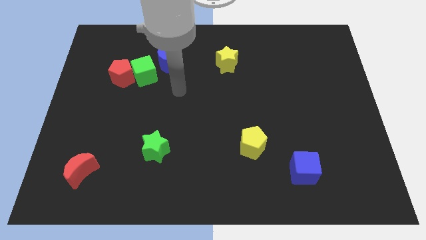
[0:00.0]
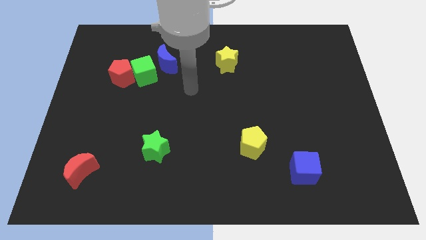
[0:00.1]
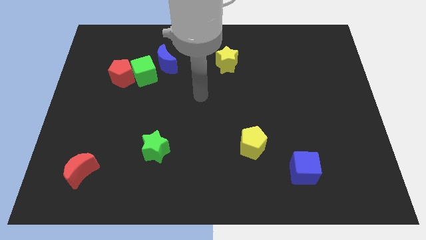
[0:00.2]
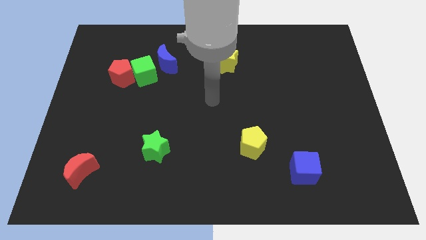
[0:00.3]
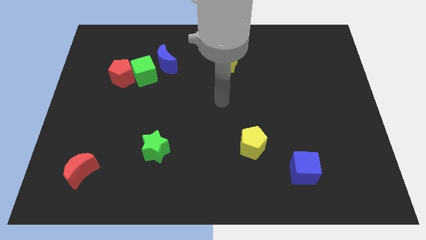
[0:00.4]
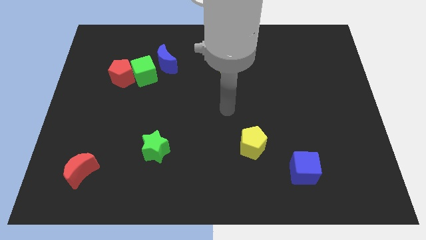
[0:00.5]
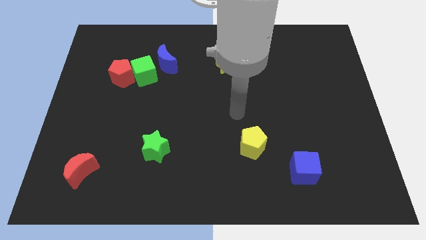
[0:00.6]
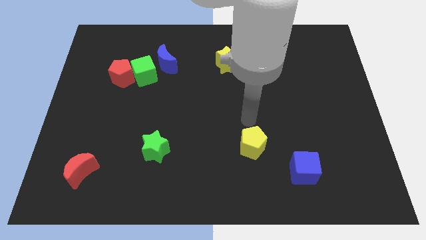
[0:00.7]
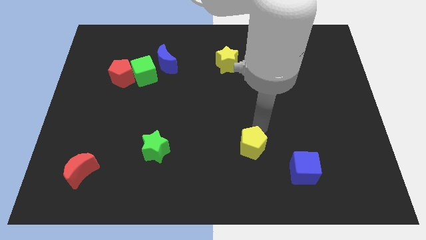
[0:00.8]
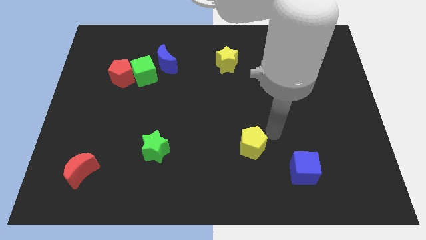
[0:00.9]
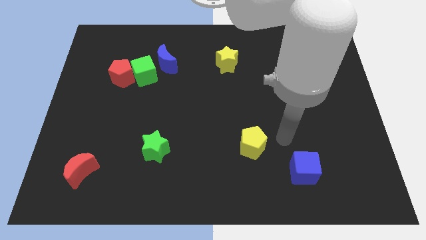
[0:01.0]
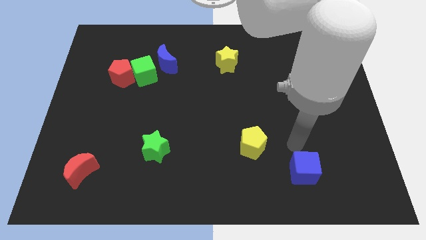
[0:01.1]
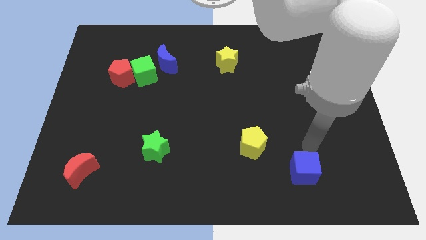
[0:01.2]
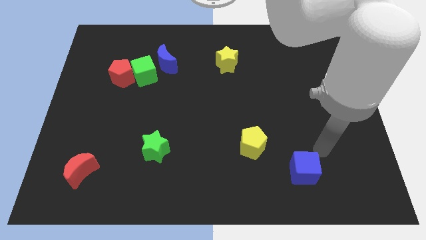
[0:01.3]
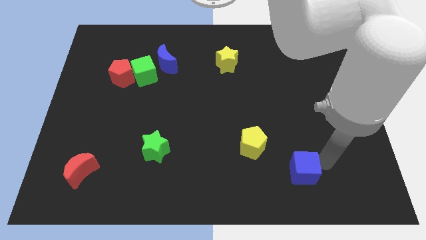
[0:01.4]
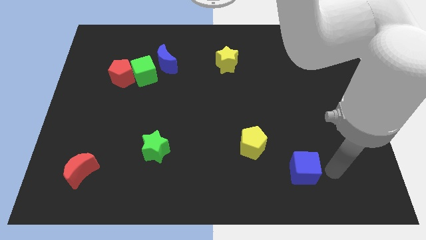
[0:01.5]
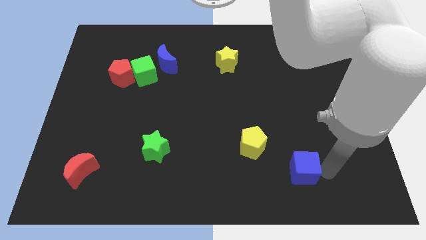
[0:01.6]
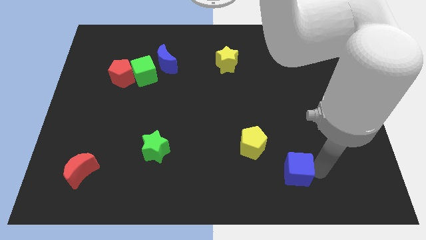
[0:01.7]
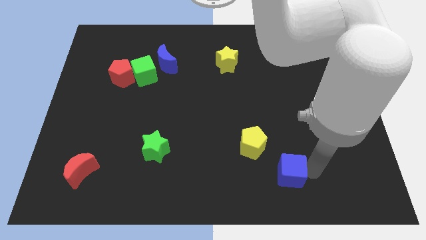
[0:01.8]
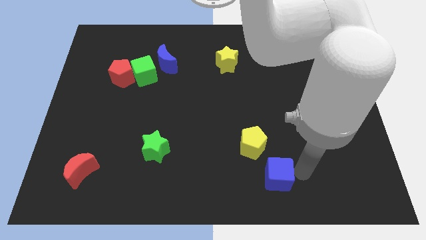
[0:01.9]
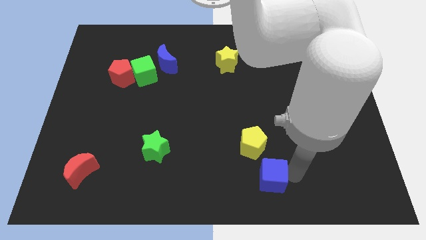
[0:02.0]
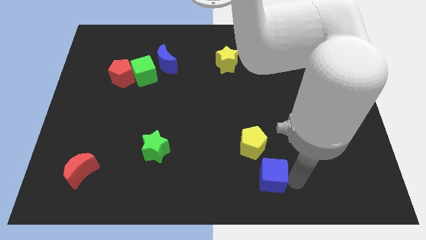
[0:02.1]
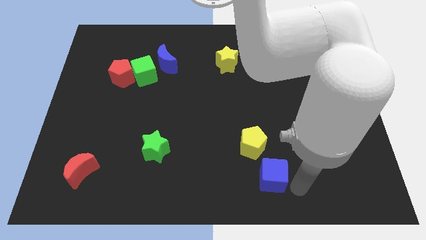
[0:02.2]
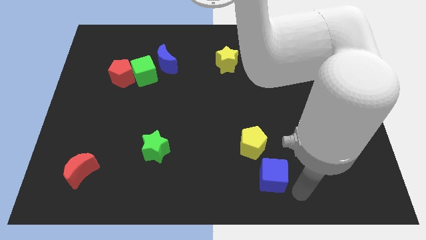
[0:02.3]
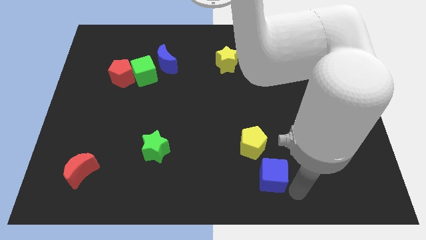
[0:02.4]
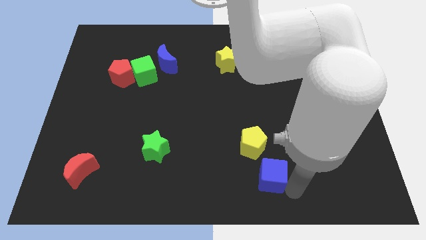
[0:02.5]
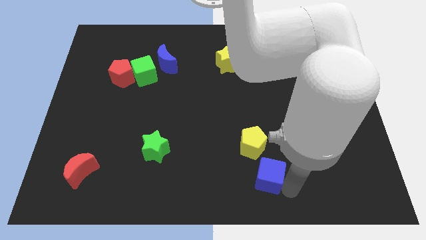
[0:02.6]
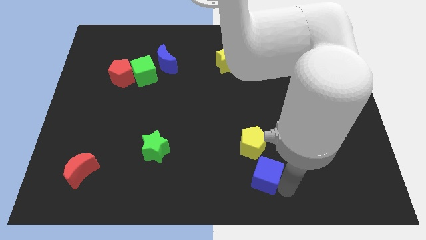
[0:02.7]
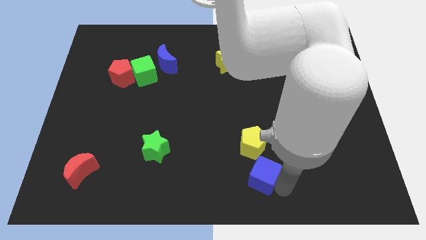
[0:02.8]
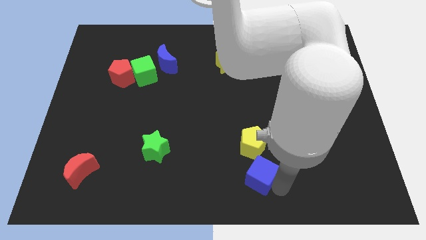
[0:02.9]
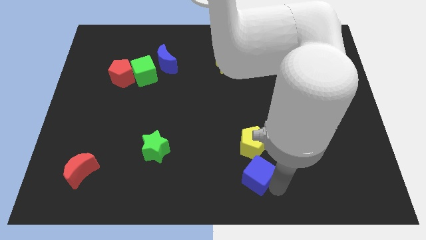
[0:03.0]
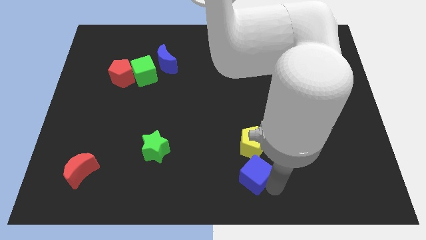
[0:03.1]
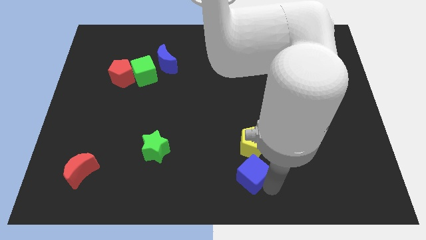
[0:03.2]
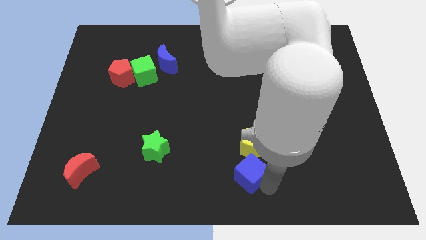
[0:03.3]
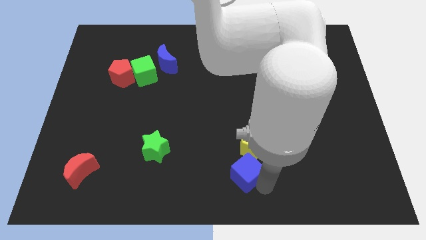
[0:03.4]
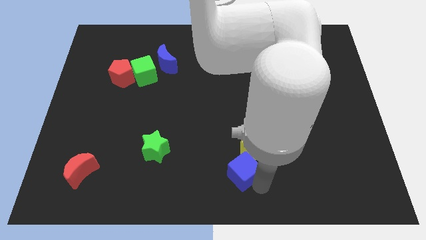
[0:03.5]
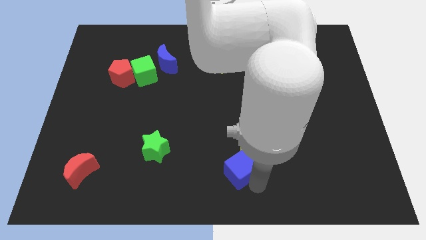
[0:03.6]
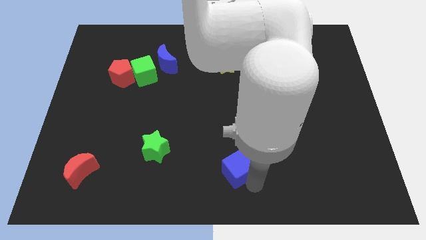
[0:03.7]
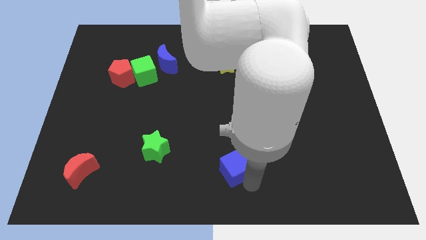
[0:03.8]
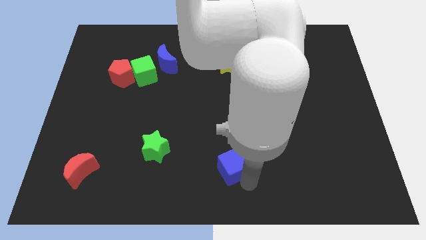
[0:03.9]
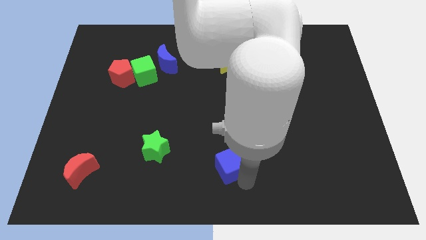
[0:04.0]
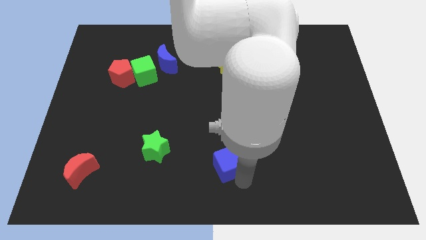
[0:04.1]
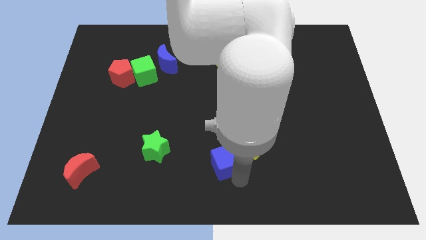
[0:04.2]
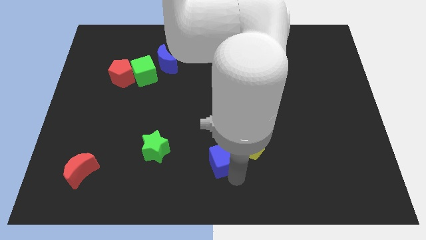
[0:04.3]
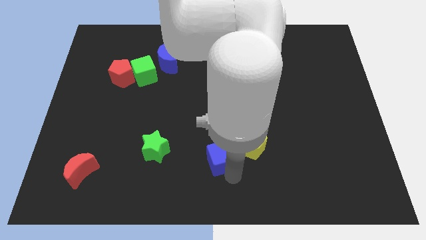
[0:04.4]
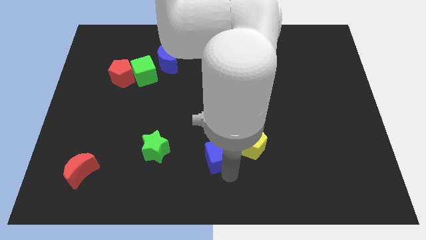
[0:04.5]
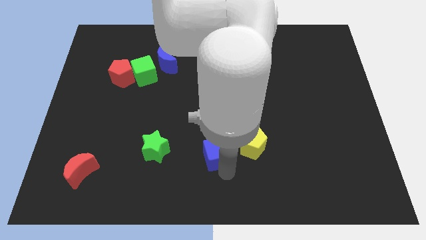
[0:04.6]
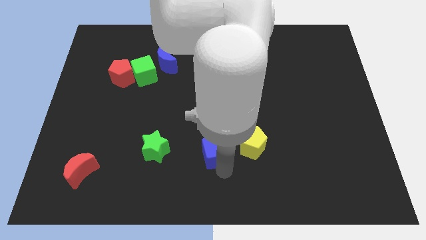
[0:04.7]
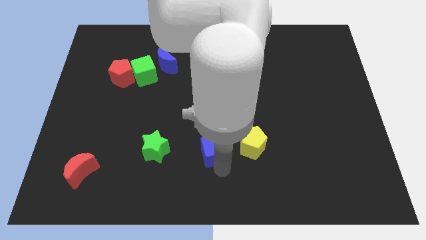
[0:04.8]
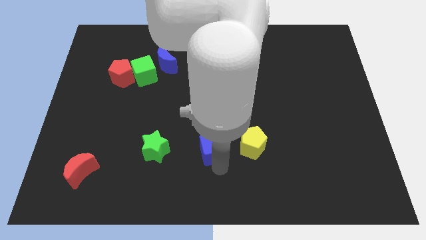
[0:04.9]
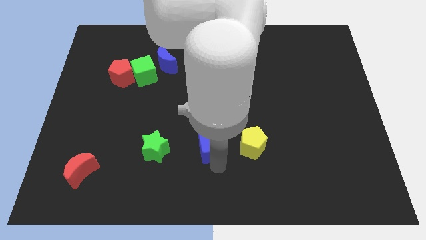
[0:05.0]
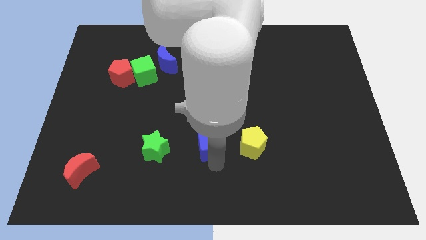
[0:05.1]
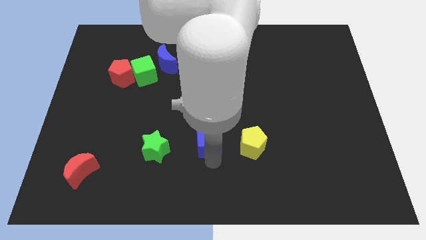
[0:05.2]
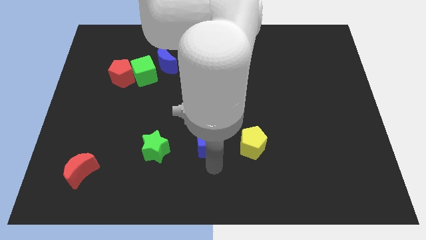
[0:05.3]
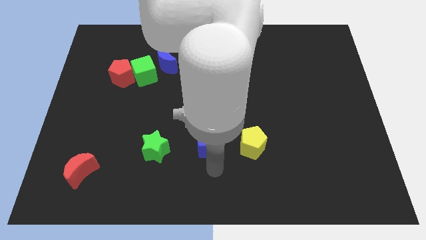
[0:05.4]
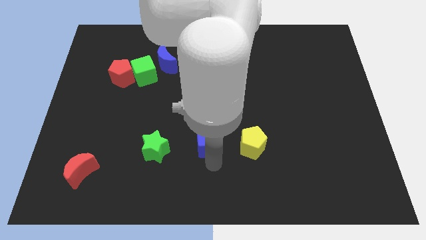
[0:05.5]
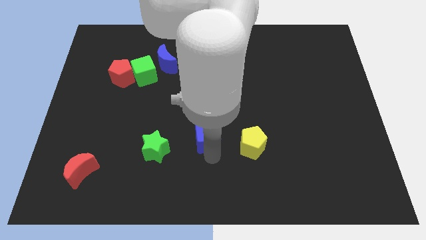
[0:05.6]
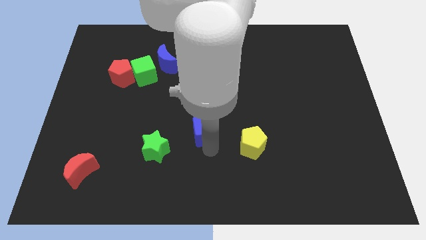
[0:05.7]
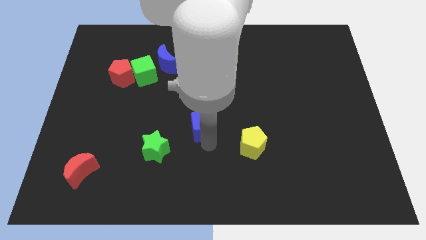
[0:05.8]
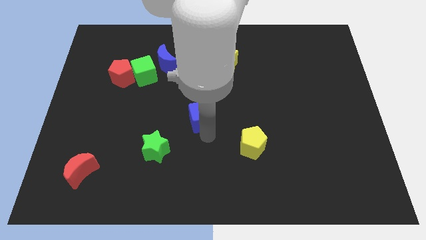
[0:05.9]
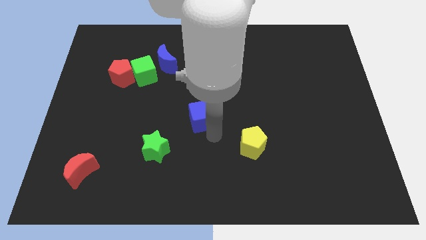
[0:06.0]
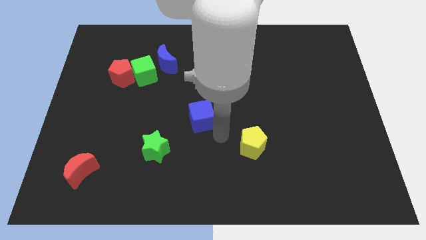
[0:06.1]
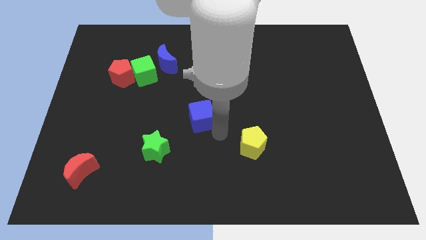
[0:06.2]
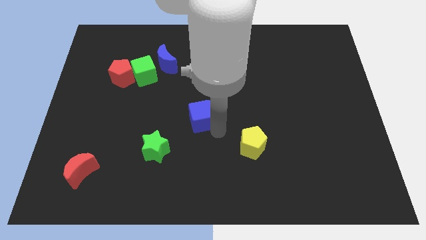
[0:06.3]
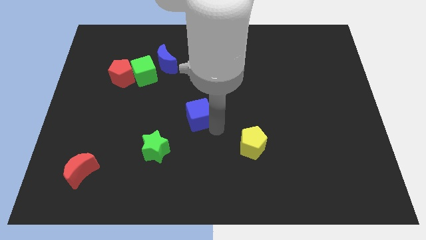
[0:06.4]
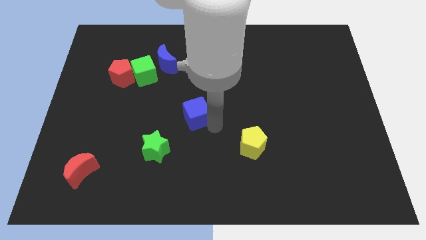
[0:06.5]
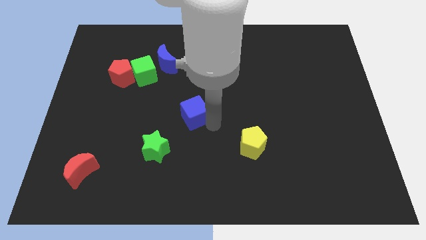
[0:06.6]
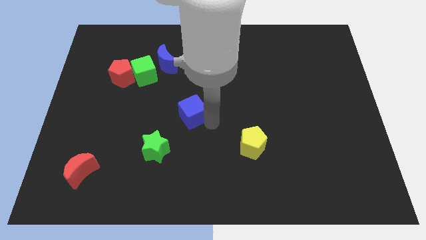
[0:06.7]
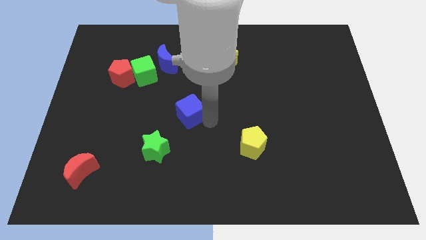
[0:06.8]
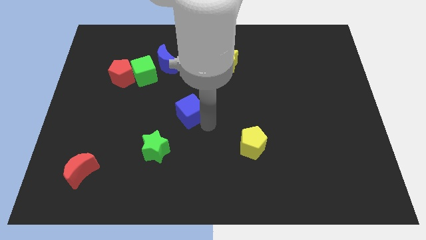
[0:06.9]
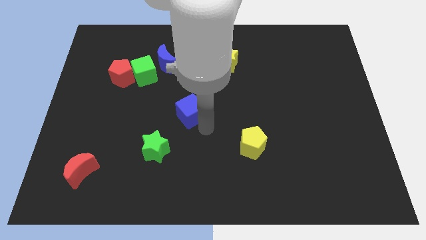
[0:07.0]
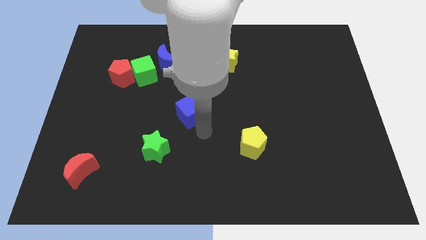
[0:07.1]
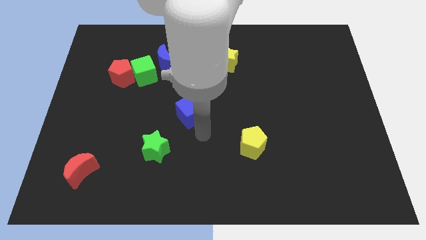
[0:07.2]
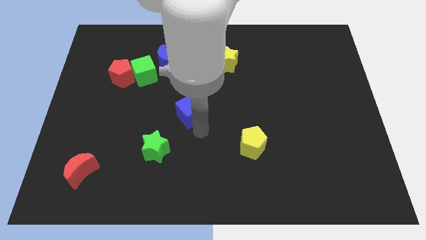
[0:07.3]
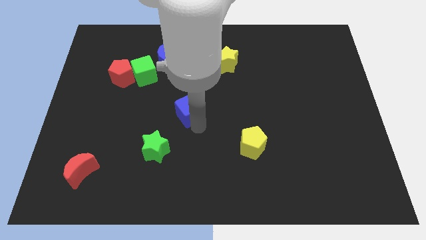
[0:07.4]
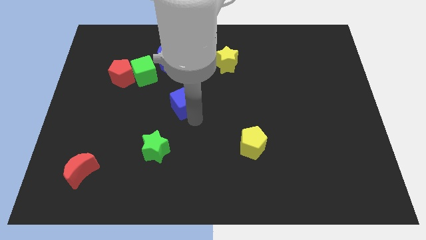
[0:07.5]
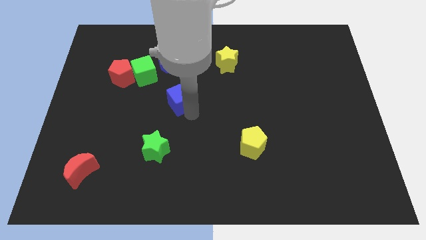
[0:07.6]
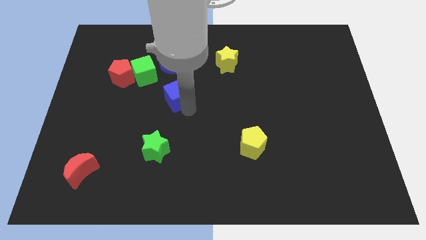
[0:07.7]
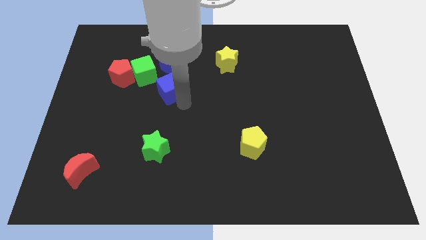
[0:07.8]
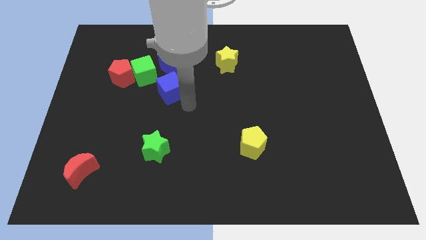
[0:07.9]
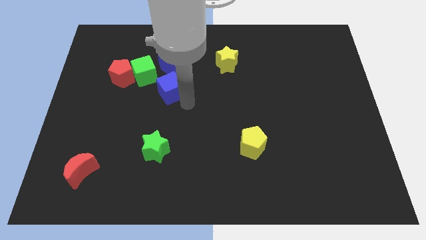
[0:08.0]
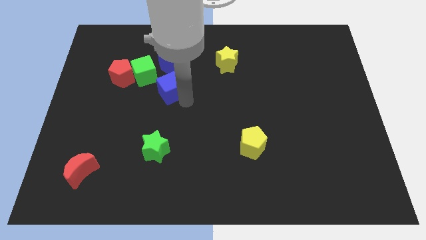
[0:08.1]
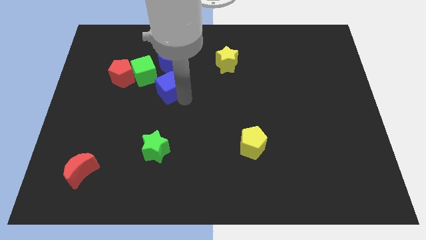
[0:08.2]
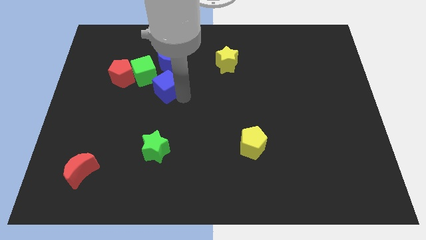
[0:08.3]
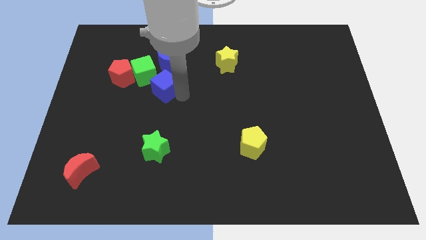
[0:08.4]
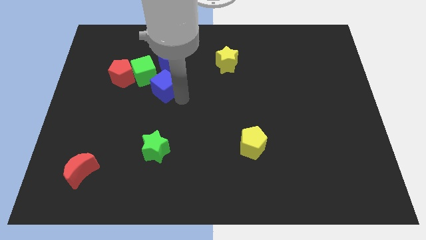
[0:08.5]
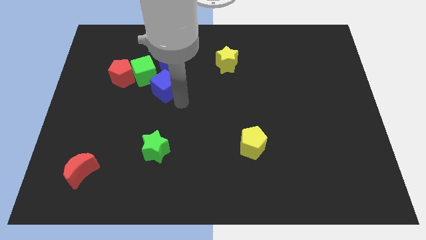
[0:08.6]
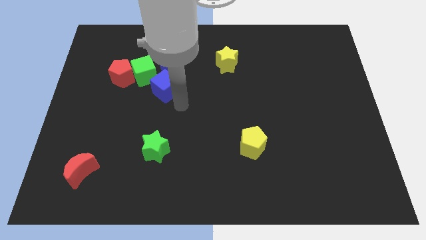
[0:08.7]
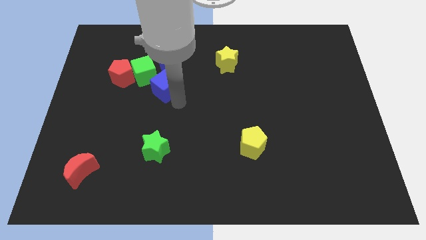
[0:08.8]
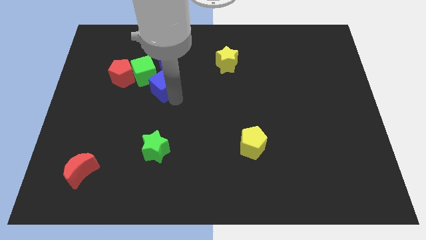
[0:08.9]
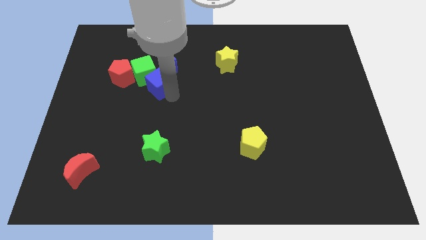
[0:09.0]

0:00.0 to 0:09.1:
push the blue cube towards the green cube
